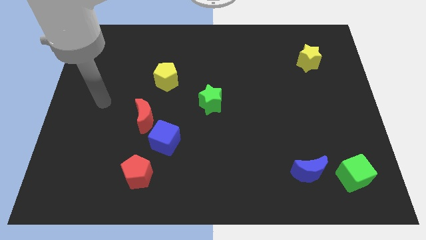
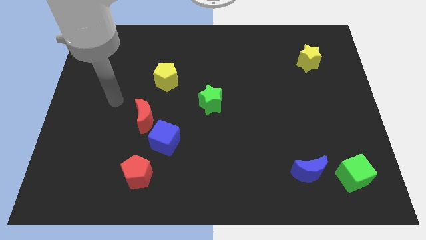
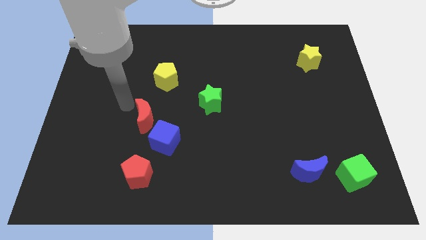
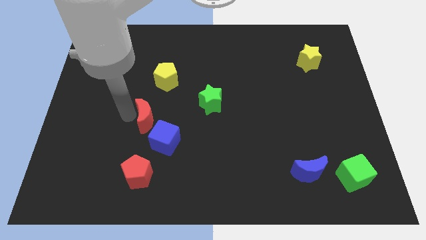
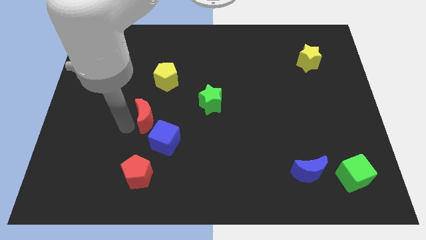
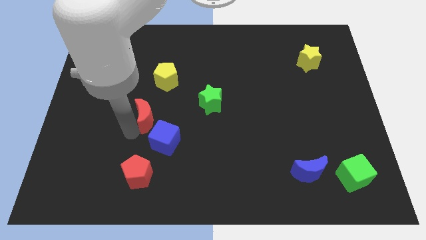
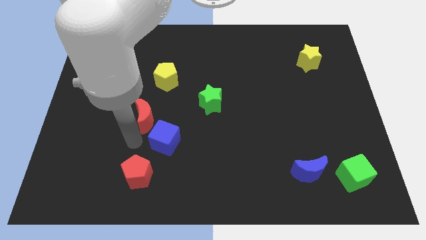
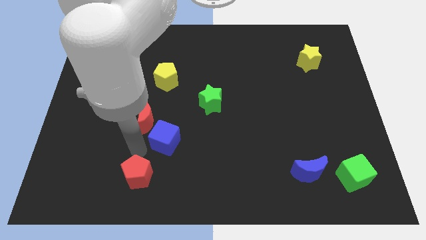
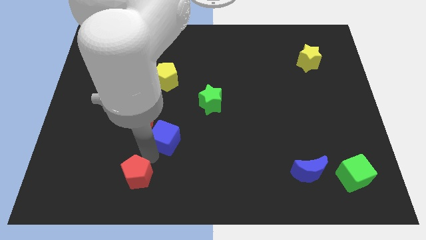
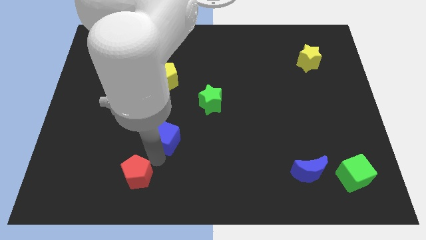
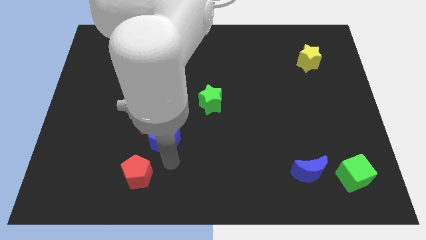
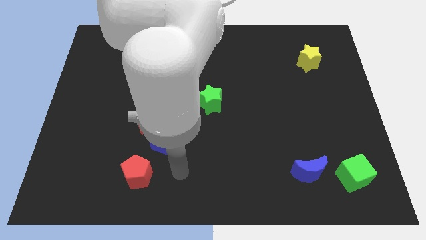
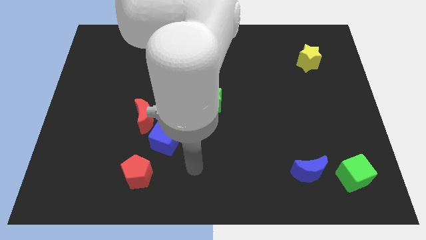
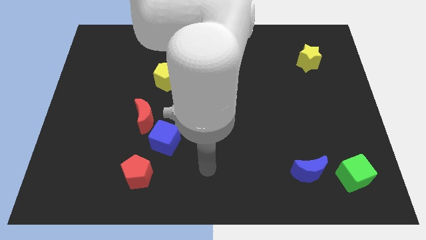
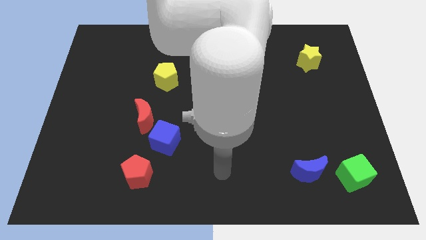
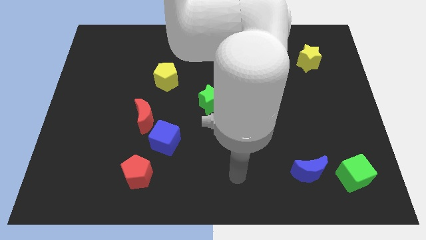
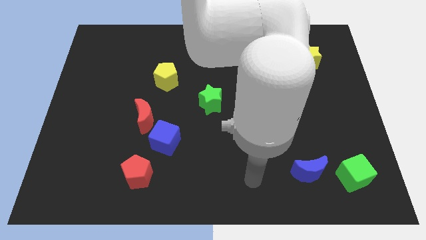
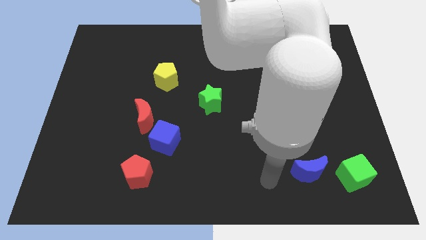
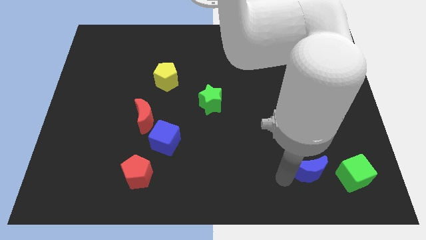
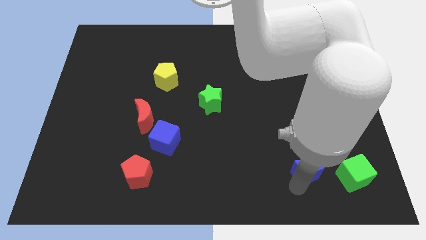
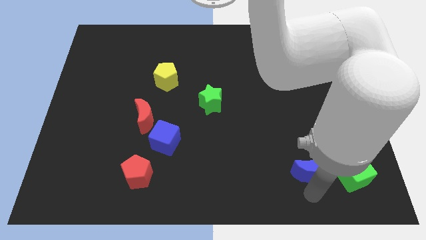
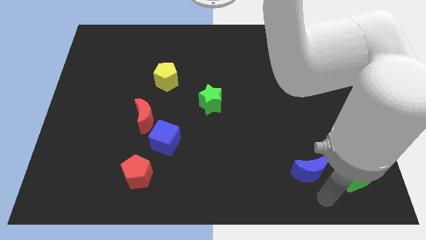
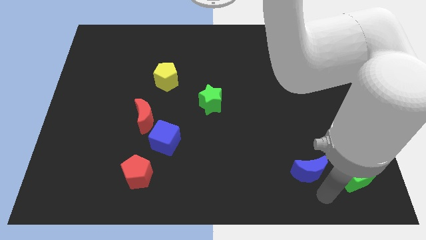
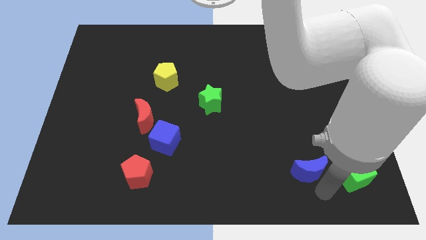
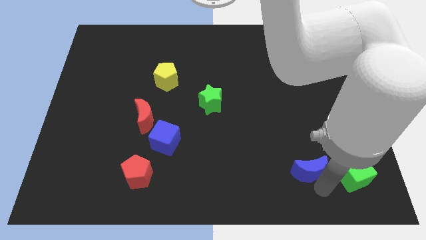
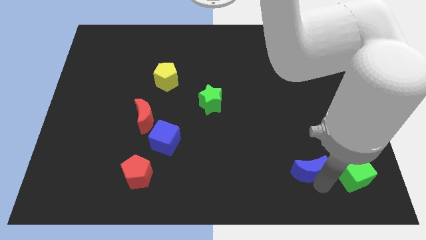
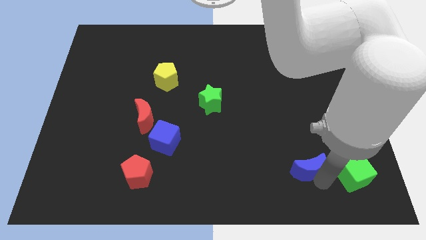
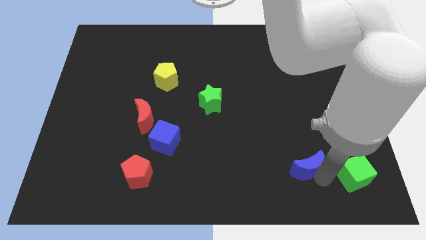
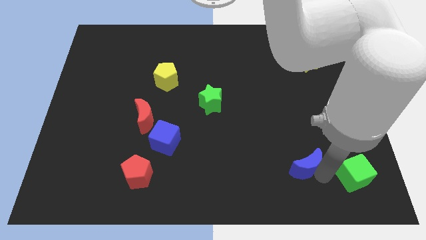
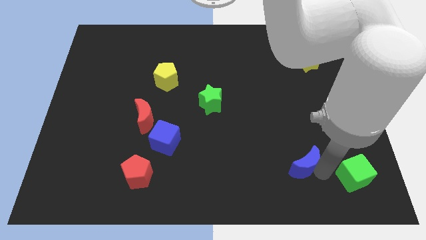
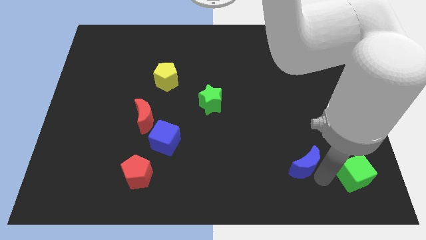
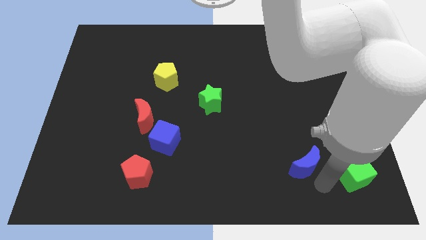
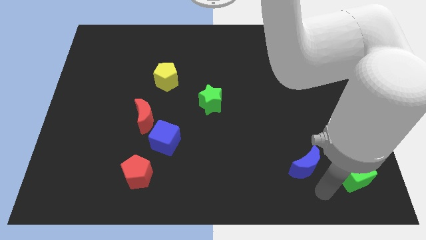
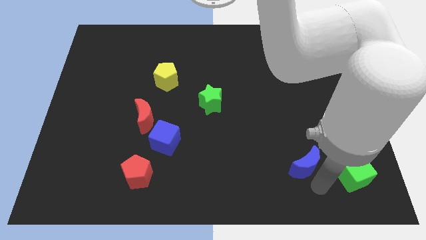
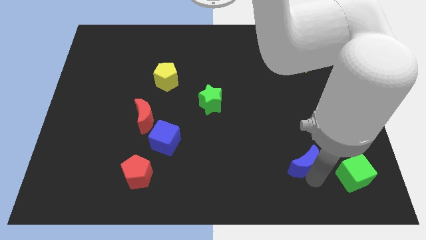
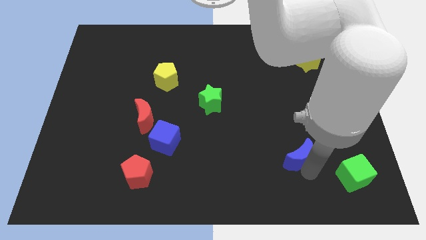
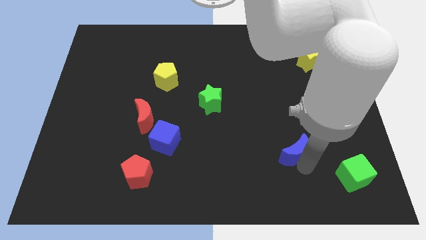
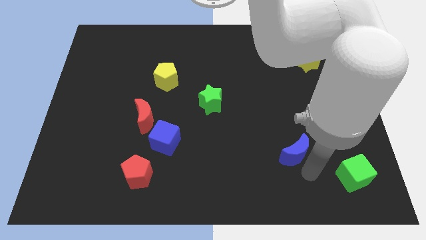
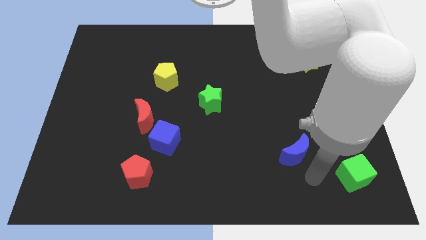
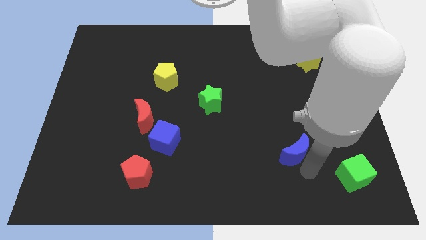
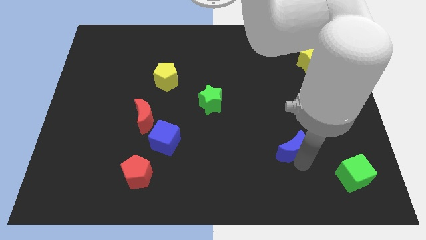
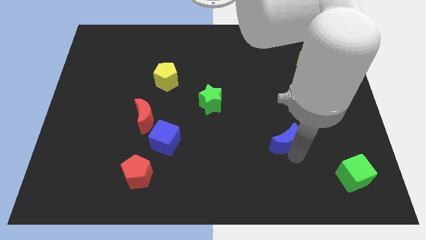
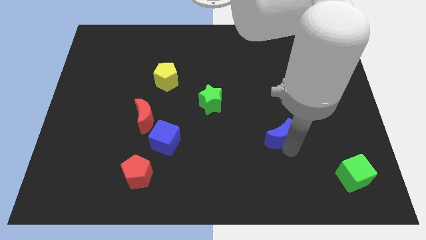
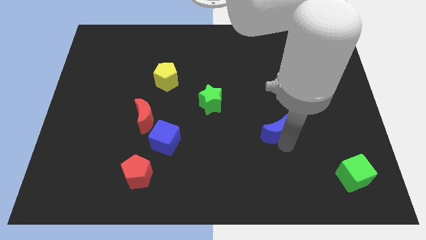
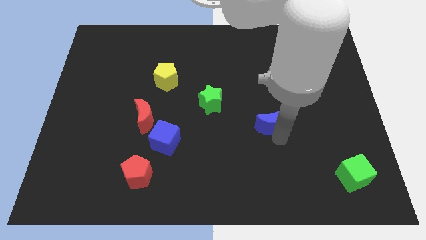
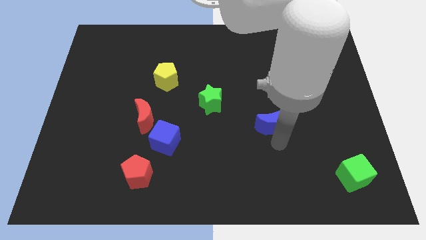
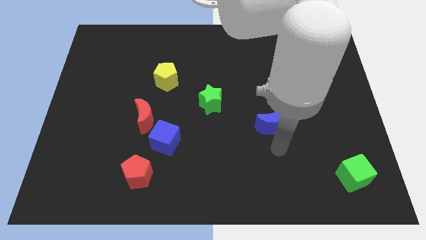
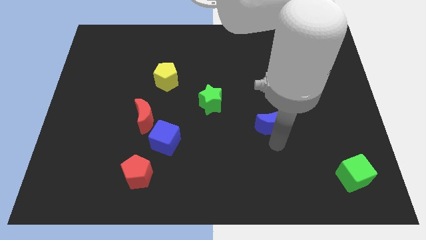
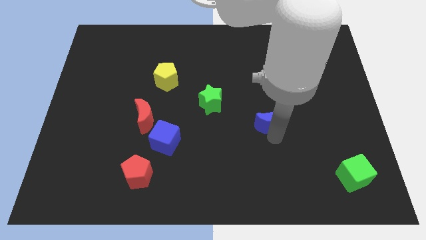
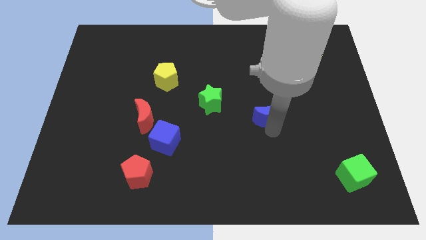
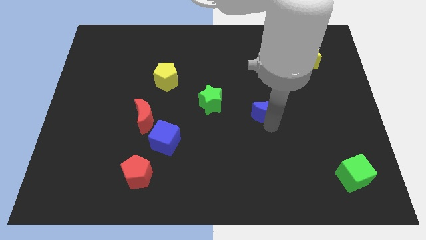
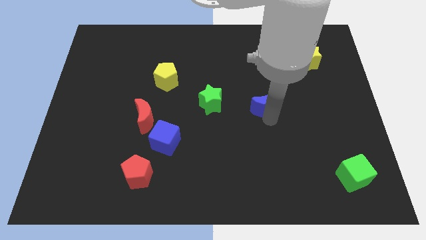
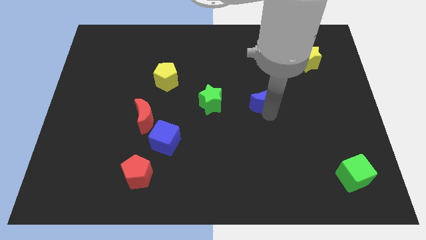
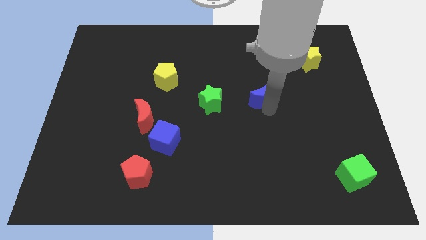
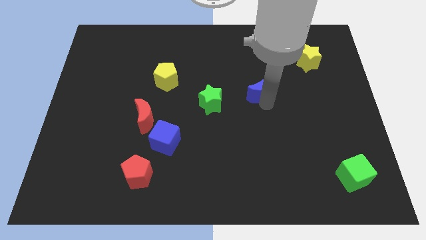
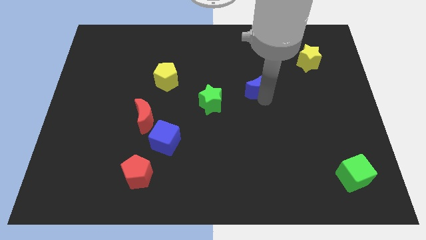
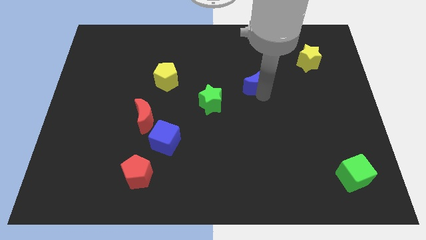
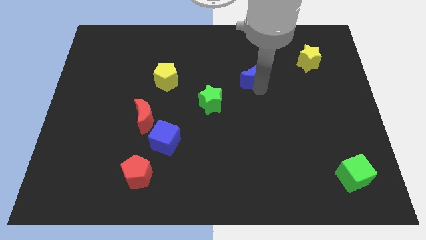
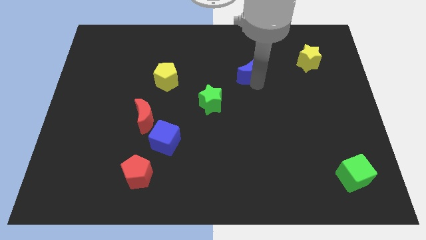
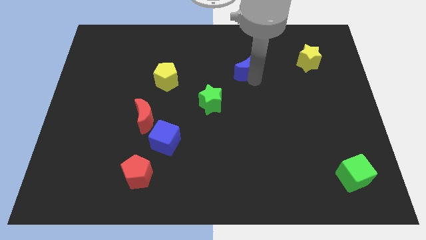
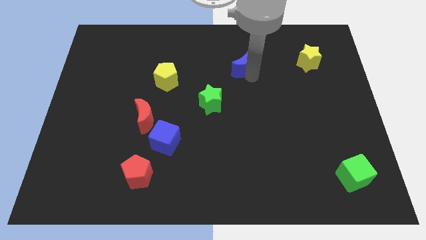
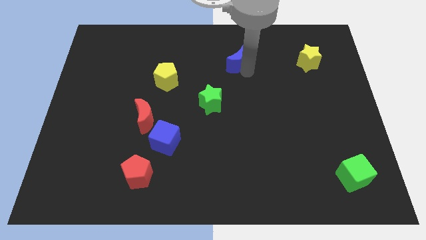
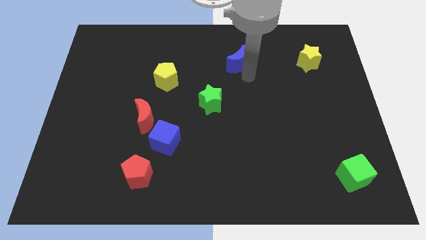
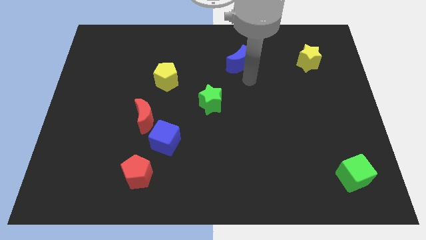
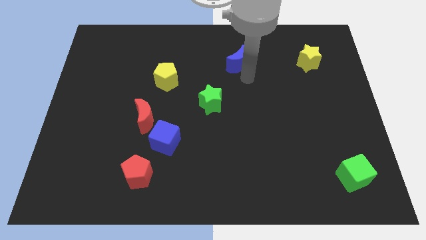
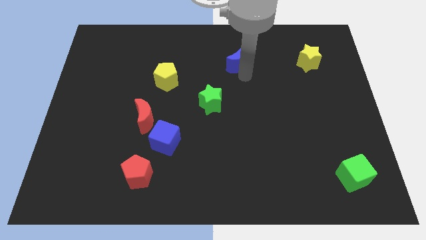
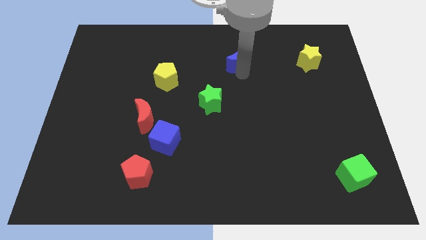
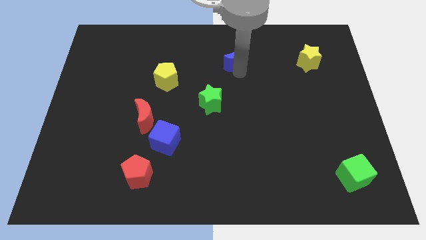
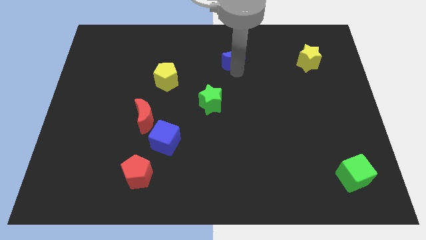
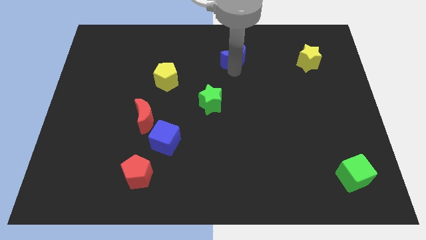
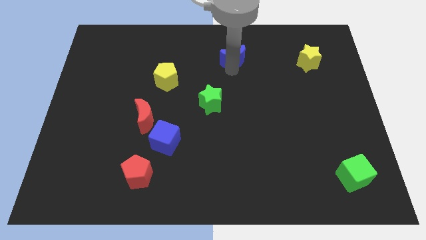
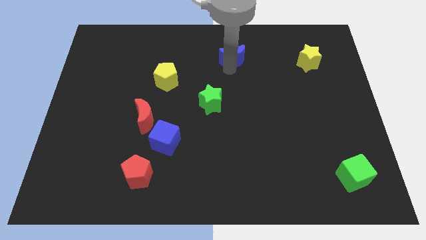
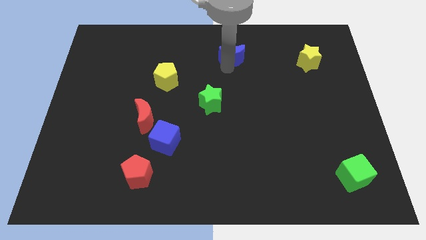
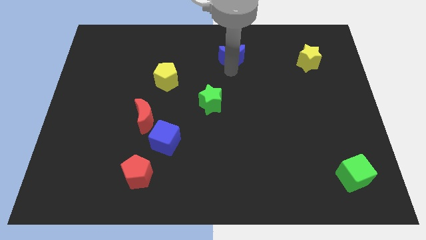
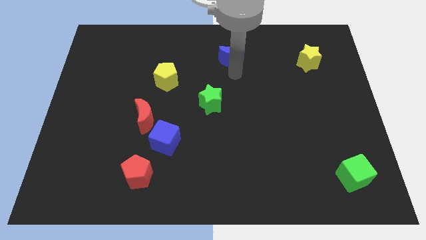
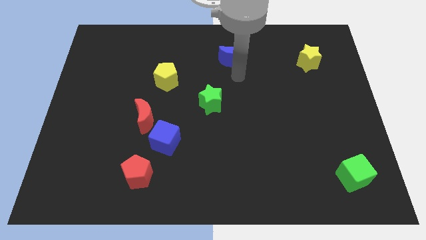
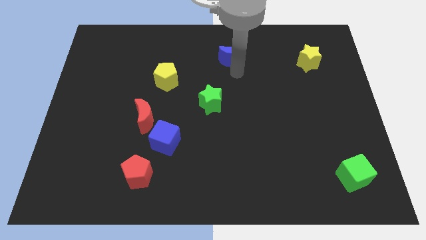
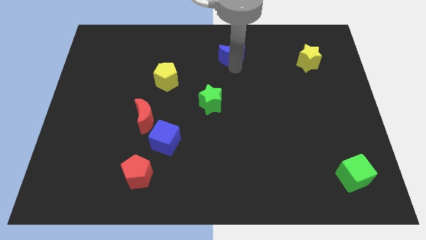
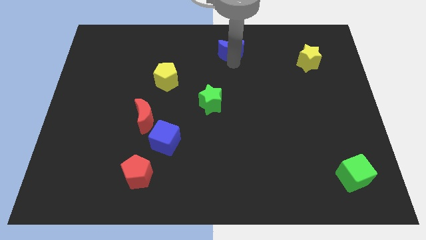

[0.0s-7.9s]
move the blue moon to the top side
